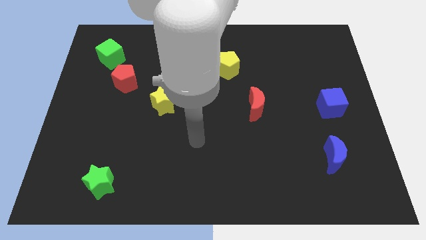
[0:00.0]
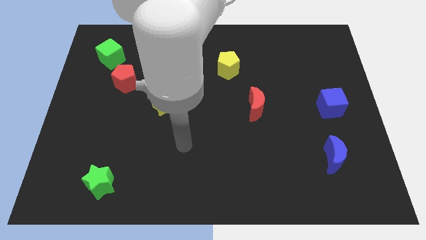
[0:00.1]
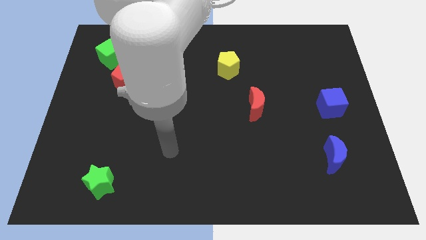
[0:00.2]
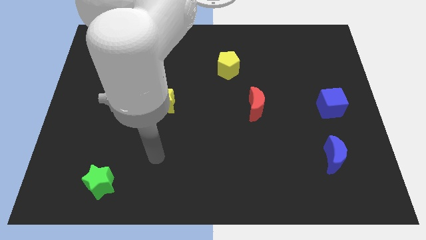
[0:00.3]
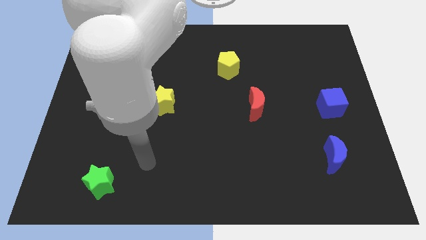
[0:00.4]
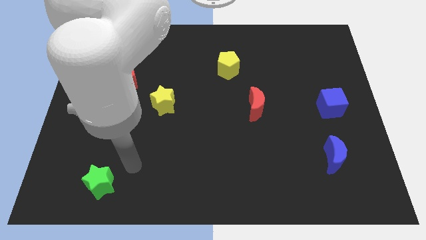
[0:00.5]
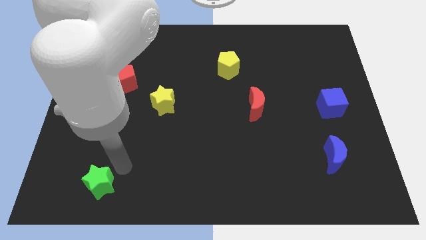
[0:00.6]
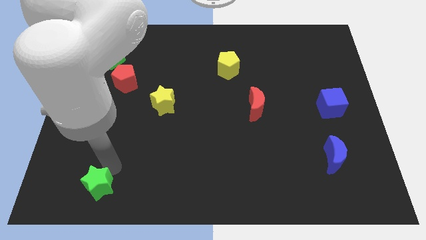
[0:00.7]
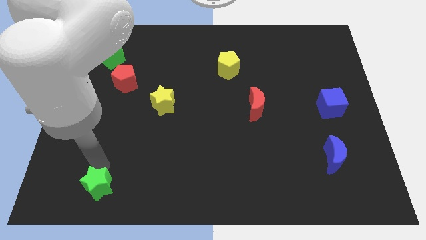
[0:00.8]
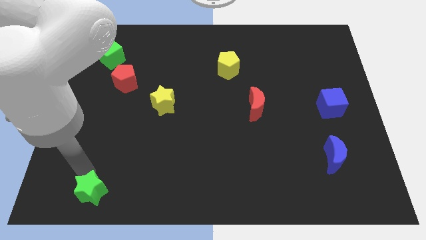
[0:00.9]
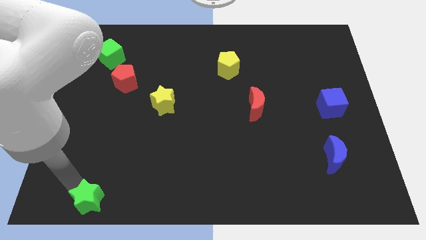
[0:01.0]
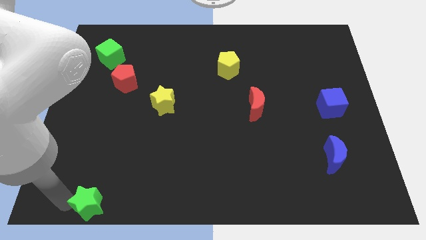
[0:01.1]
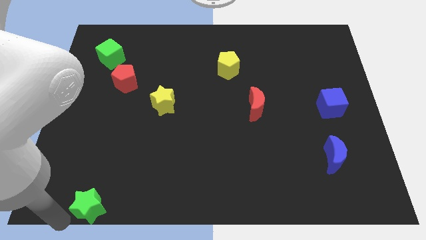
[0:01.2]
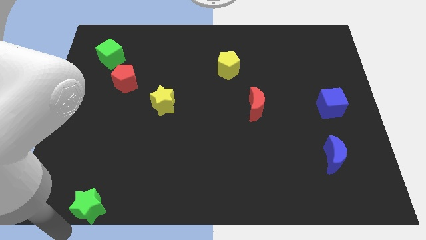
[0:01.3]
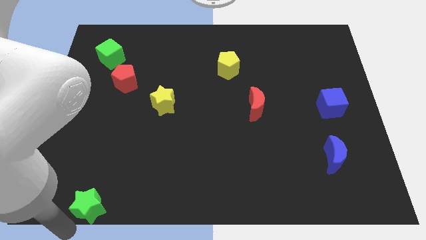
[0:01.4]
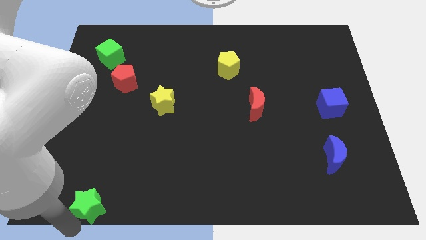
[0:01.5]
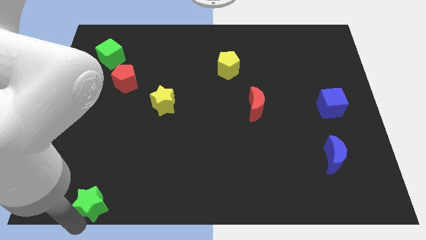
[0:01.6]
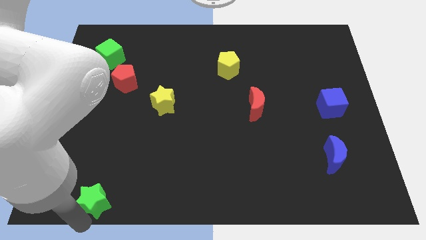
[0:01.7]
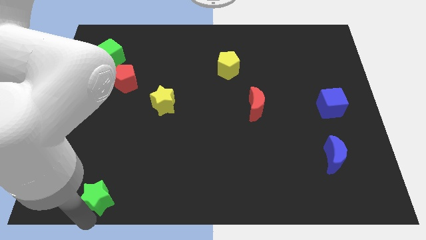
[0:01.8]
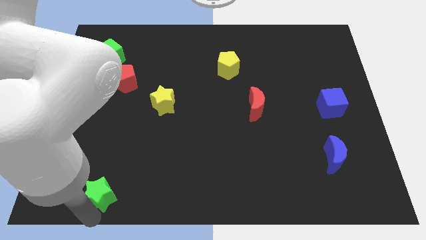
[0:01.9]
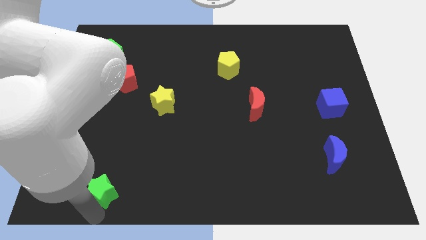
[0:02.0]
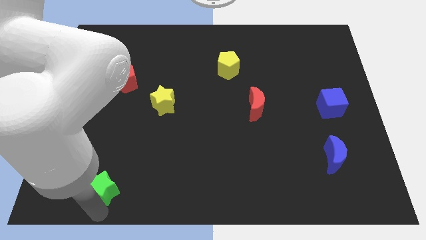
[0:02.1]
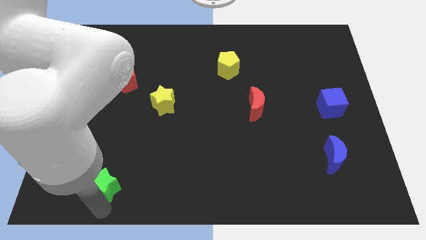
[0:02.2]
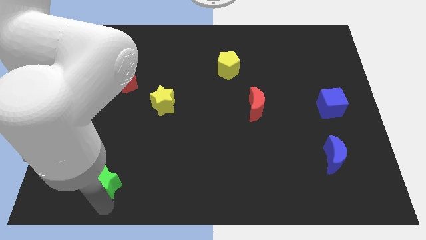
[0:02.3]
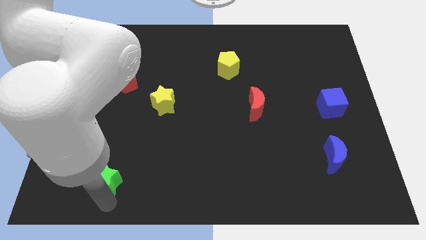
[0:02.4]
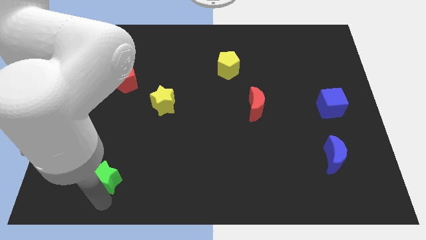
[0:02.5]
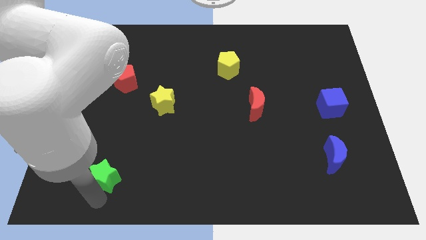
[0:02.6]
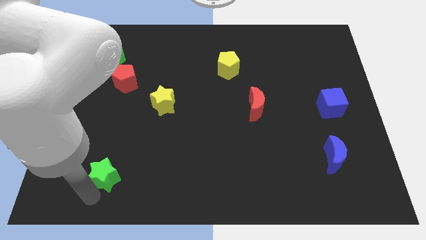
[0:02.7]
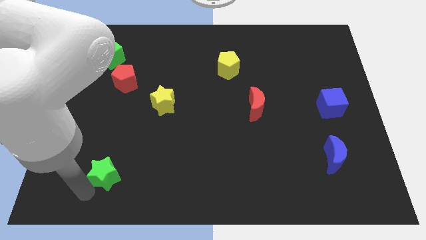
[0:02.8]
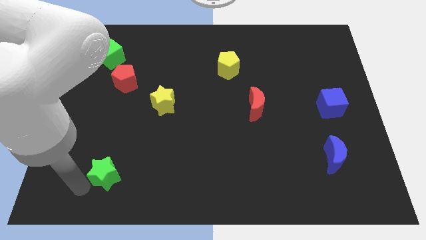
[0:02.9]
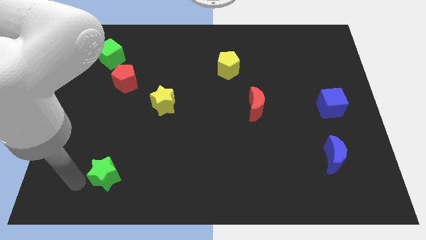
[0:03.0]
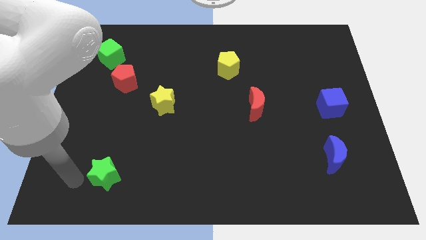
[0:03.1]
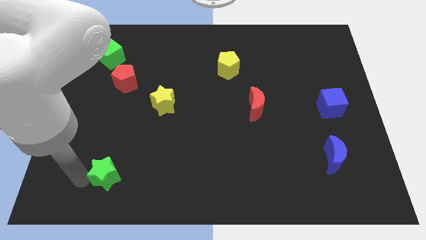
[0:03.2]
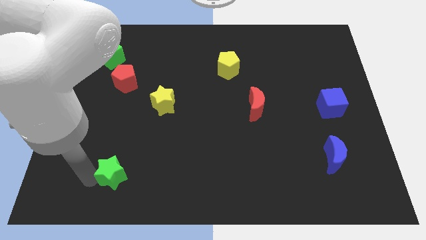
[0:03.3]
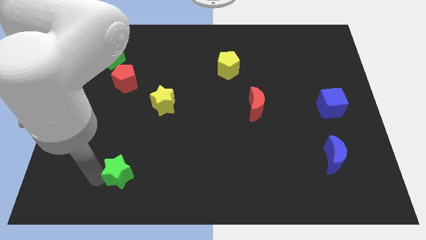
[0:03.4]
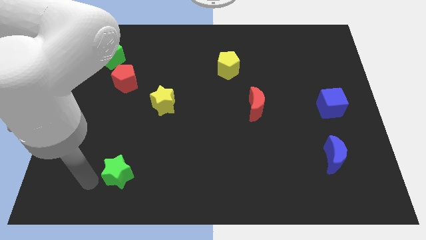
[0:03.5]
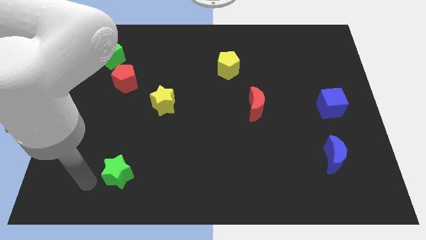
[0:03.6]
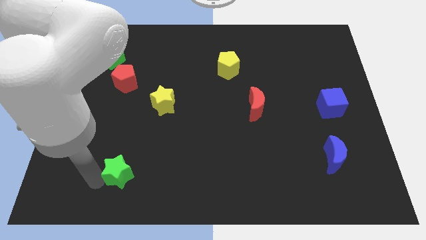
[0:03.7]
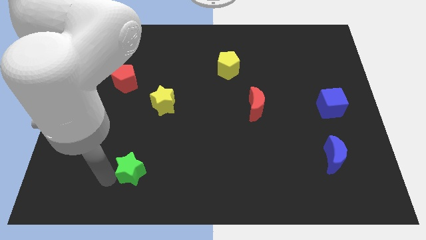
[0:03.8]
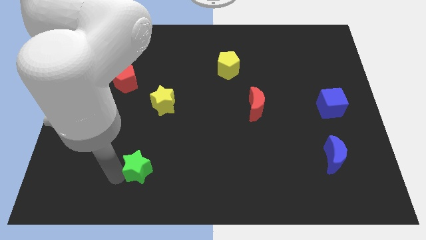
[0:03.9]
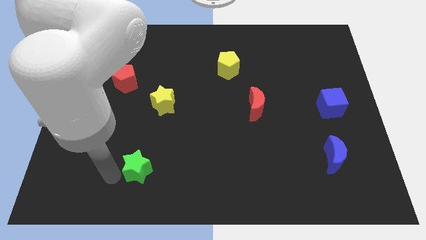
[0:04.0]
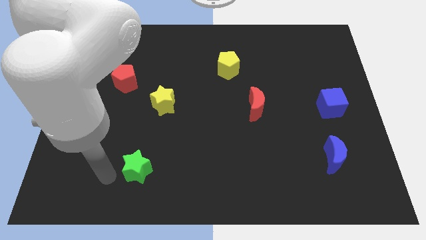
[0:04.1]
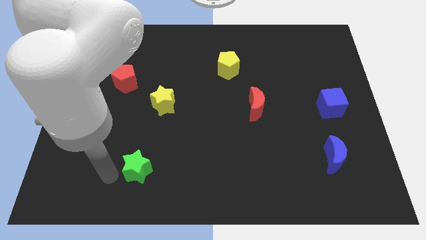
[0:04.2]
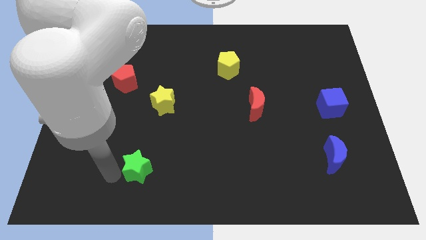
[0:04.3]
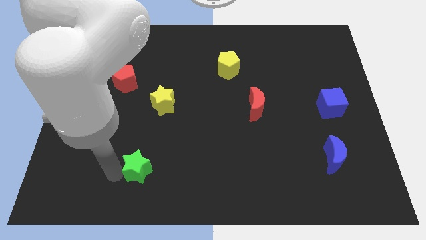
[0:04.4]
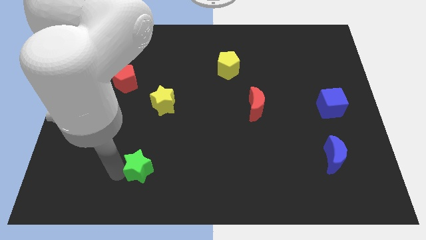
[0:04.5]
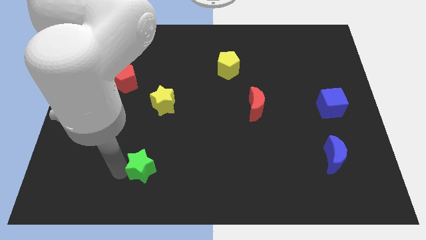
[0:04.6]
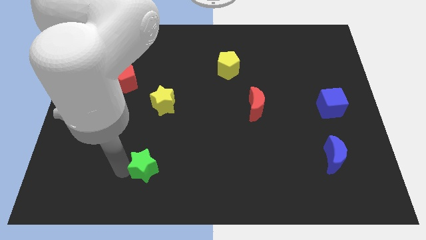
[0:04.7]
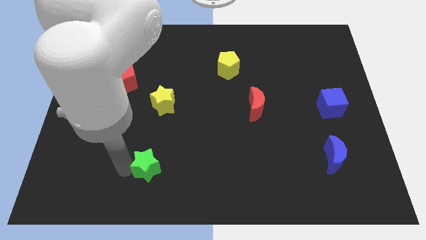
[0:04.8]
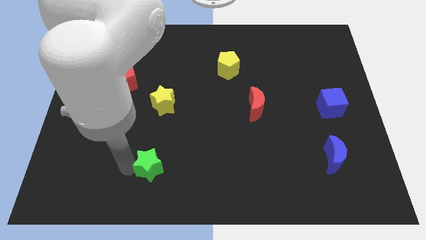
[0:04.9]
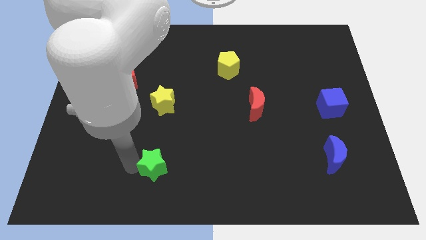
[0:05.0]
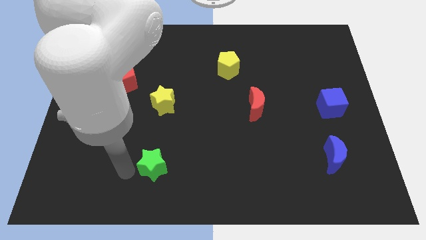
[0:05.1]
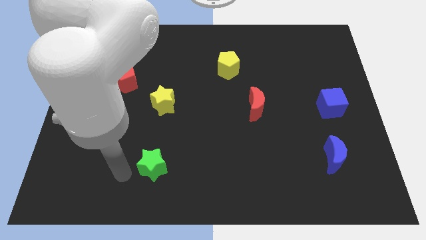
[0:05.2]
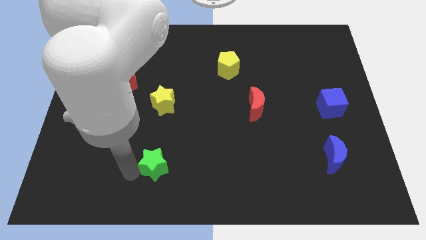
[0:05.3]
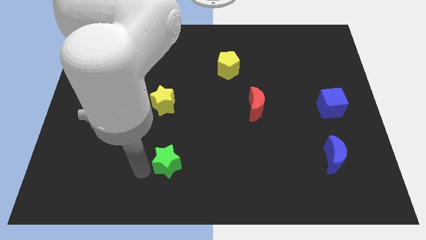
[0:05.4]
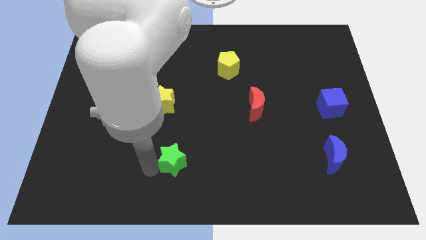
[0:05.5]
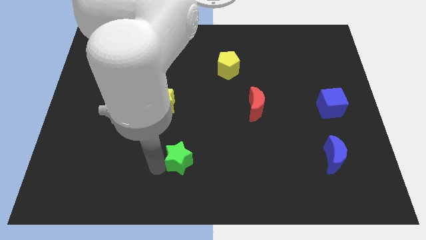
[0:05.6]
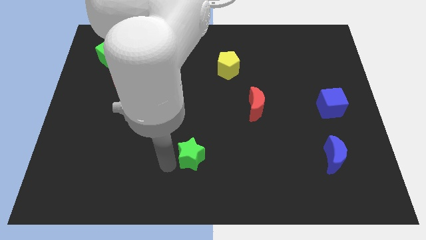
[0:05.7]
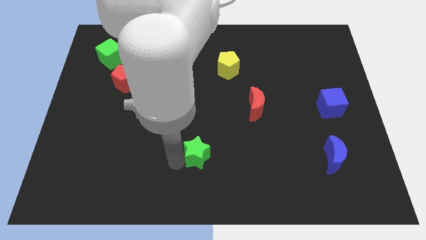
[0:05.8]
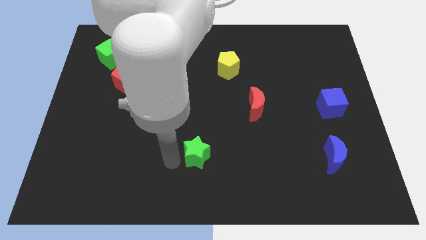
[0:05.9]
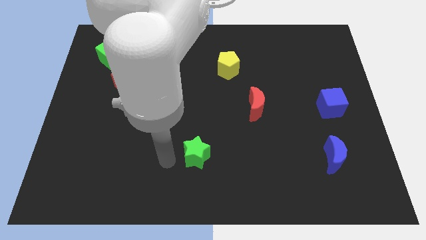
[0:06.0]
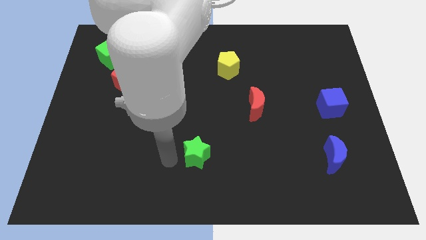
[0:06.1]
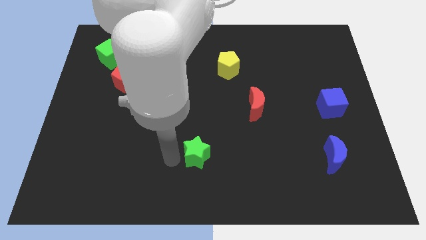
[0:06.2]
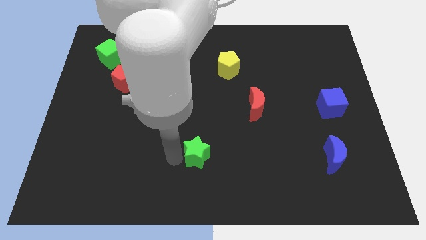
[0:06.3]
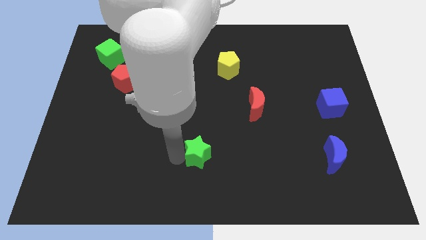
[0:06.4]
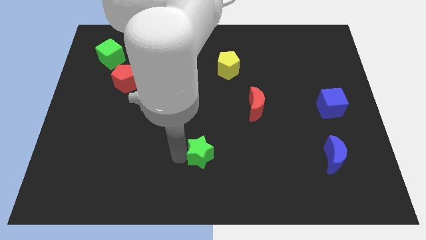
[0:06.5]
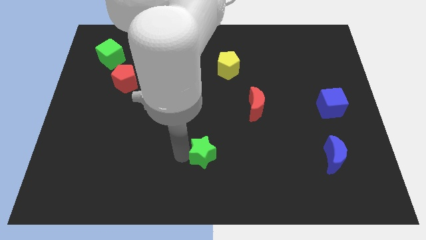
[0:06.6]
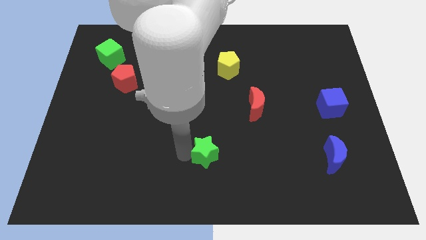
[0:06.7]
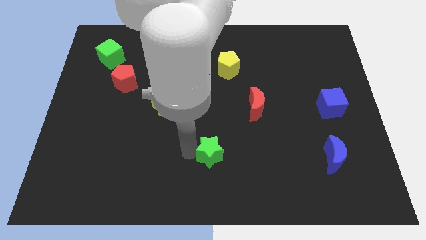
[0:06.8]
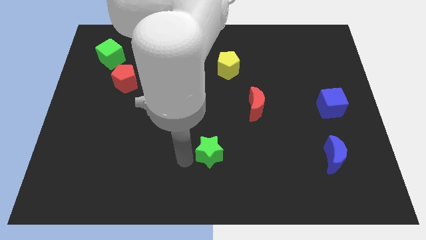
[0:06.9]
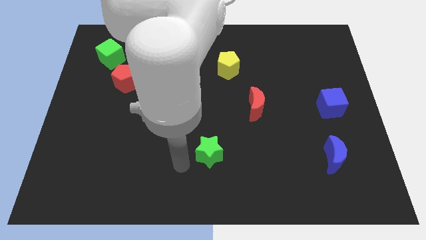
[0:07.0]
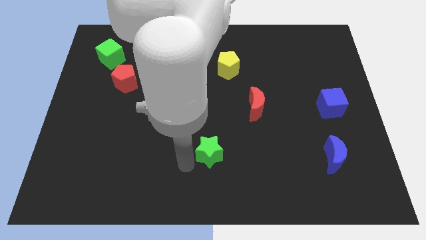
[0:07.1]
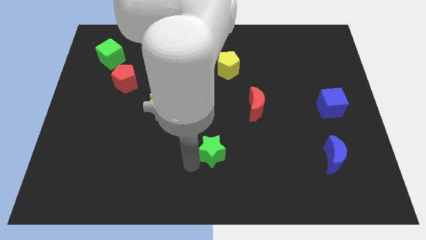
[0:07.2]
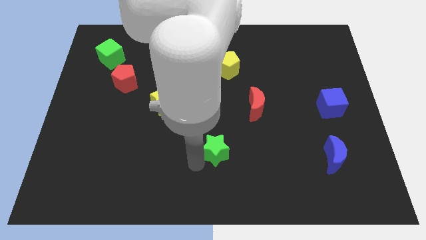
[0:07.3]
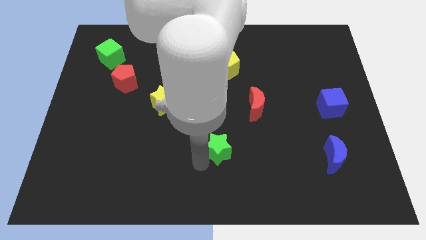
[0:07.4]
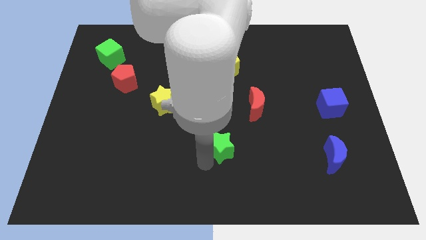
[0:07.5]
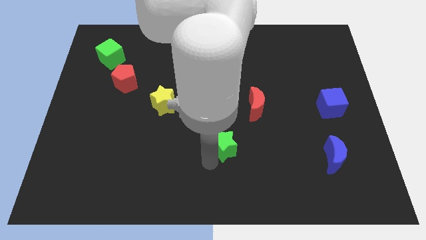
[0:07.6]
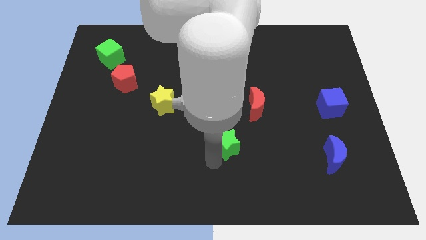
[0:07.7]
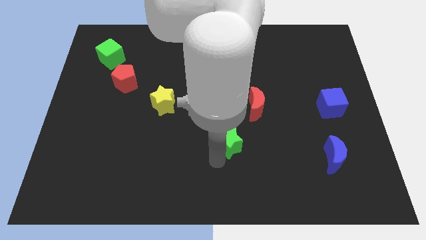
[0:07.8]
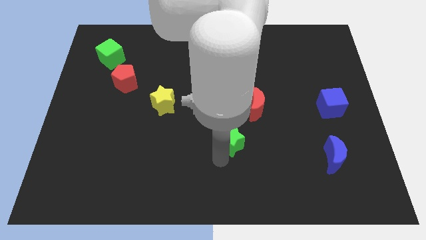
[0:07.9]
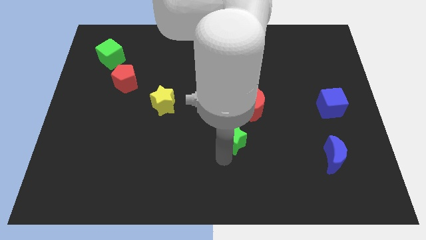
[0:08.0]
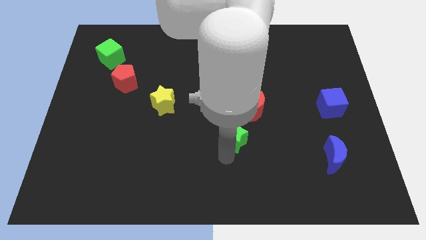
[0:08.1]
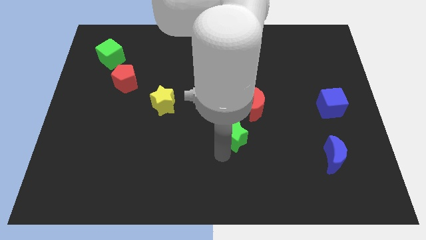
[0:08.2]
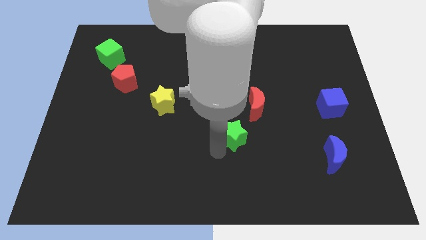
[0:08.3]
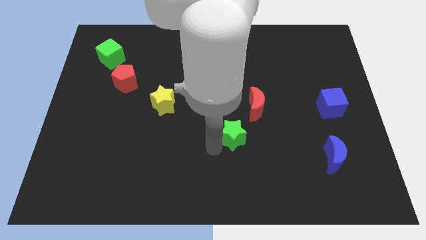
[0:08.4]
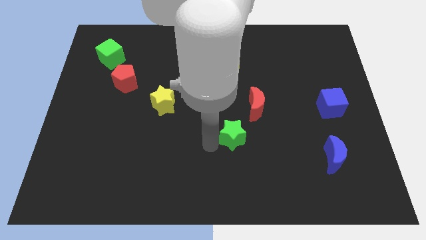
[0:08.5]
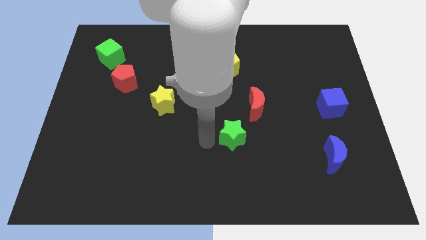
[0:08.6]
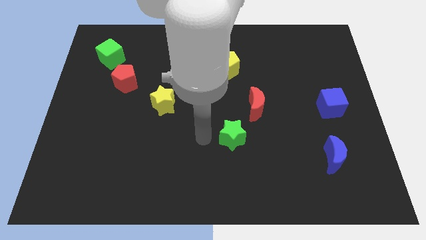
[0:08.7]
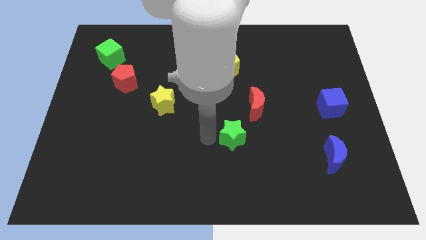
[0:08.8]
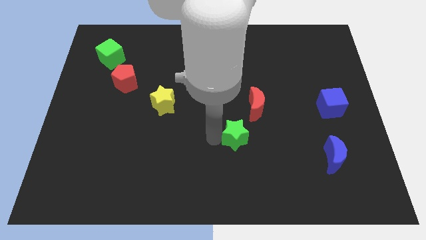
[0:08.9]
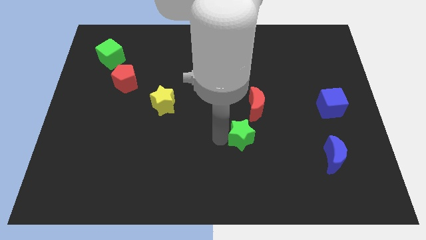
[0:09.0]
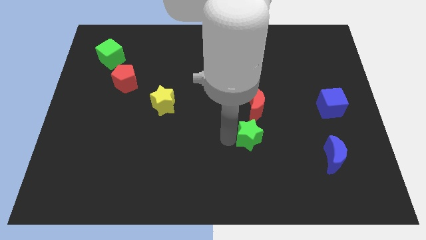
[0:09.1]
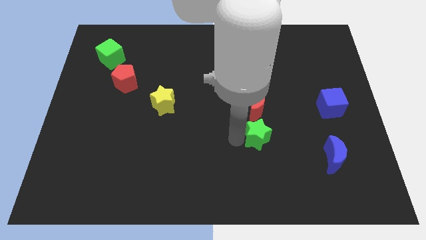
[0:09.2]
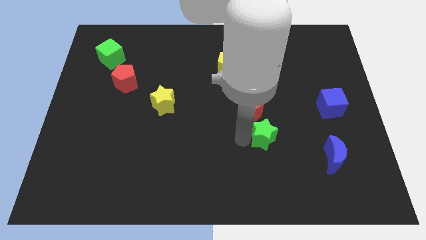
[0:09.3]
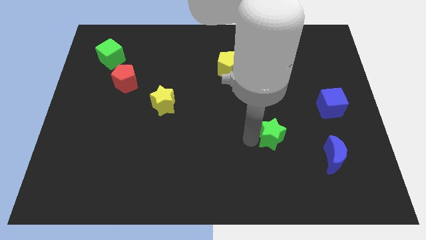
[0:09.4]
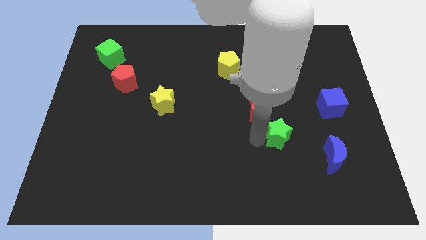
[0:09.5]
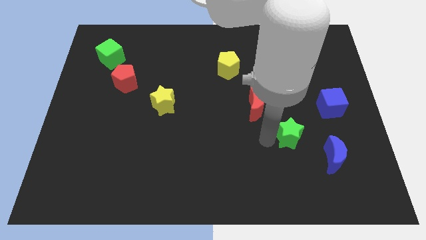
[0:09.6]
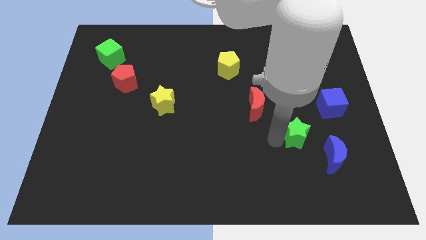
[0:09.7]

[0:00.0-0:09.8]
slide the green star diagonally down and to the left of the blue cube
